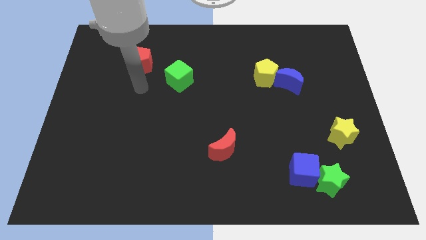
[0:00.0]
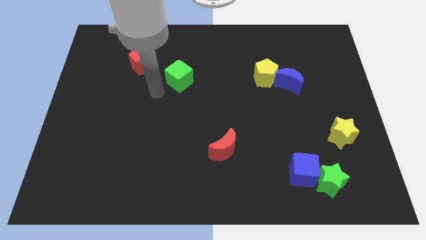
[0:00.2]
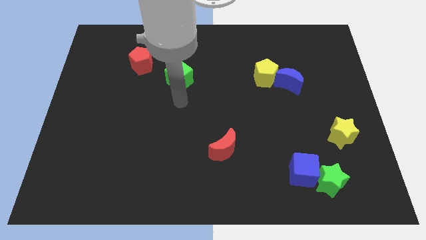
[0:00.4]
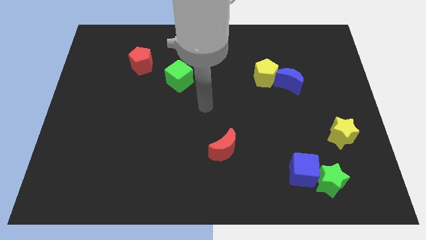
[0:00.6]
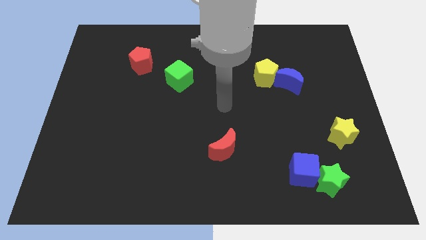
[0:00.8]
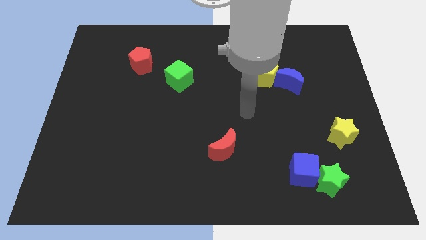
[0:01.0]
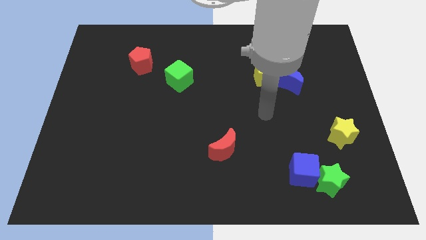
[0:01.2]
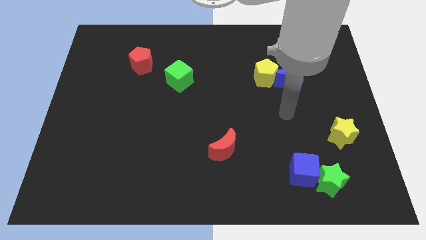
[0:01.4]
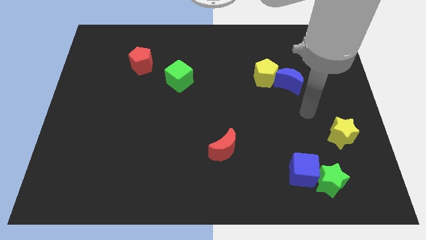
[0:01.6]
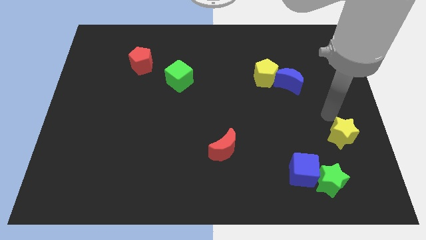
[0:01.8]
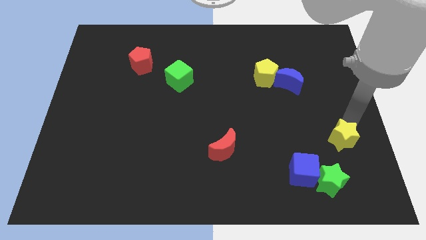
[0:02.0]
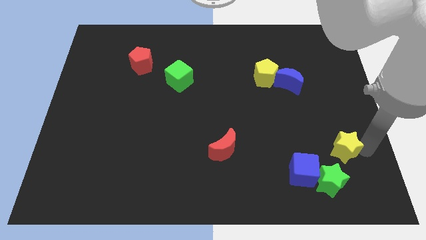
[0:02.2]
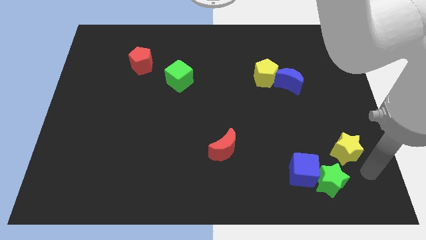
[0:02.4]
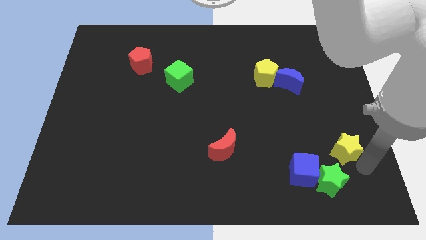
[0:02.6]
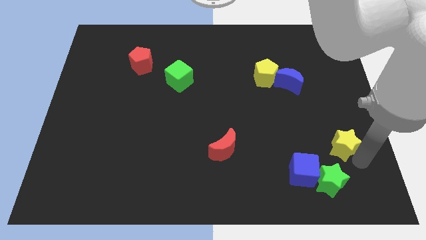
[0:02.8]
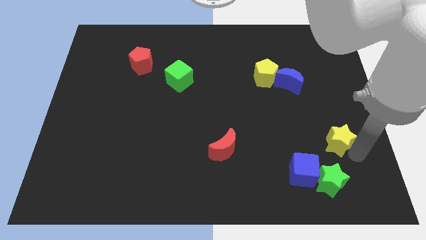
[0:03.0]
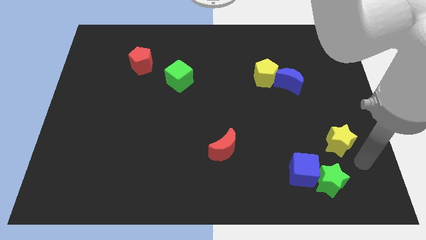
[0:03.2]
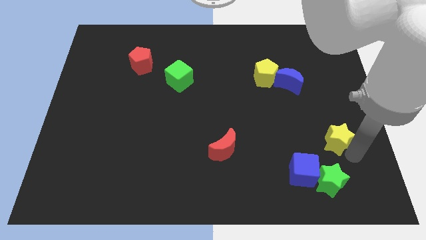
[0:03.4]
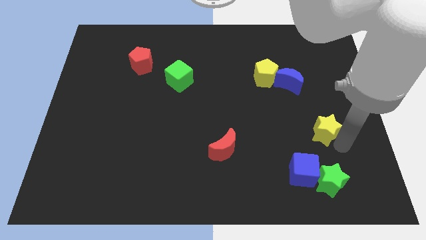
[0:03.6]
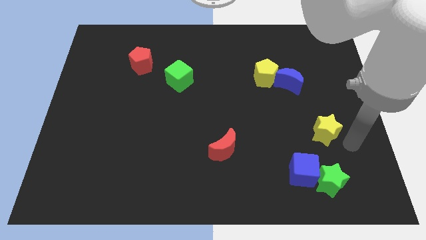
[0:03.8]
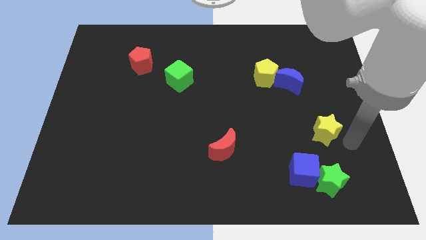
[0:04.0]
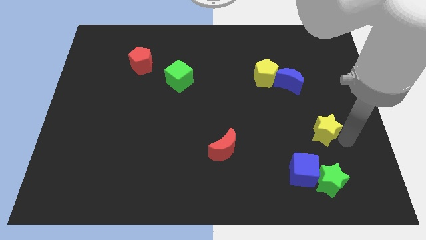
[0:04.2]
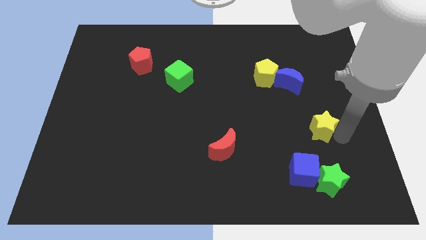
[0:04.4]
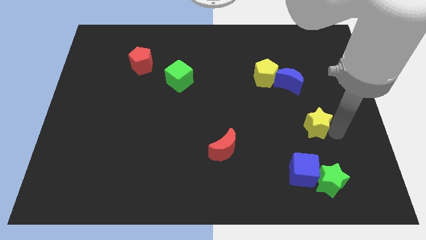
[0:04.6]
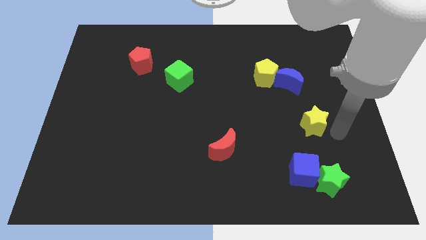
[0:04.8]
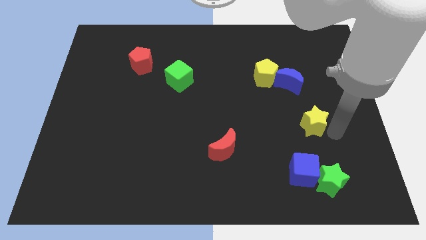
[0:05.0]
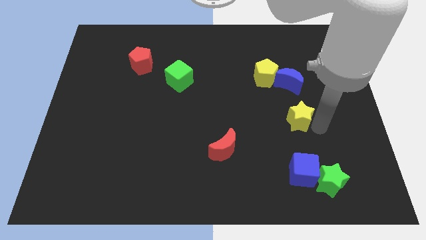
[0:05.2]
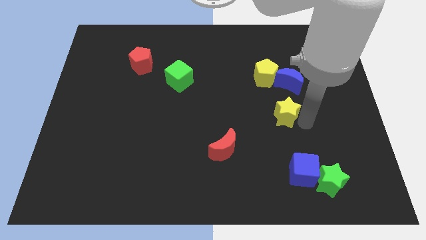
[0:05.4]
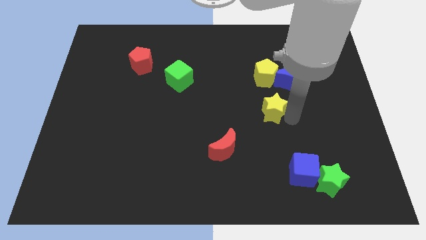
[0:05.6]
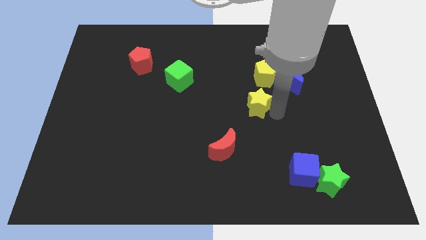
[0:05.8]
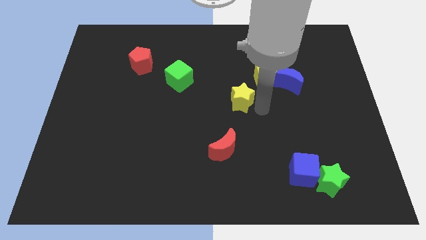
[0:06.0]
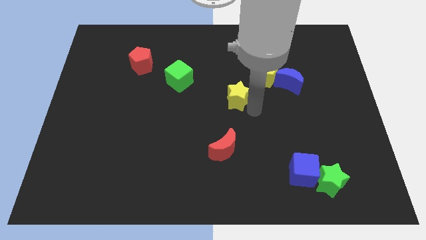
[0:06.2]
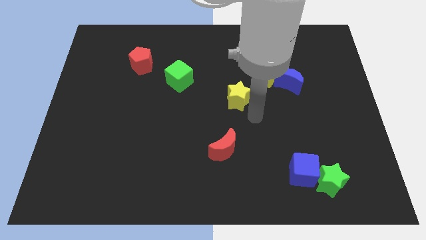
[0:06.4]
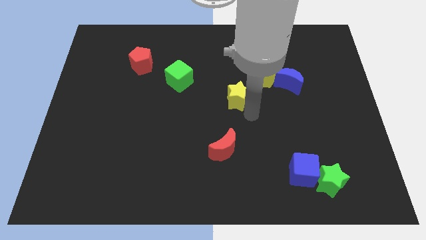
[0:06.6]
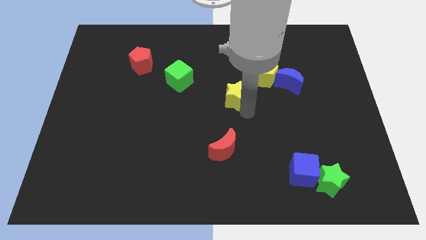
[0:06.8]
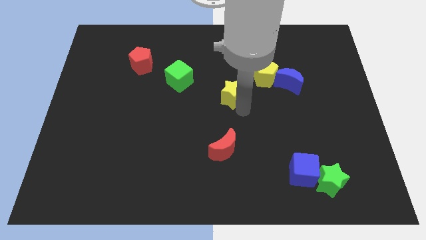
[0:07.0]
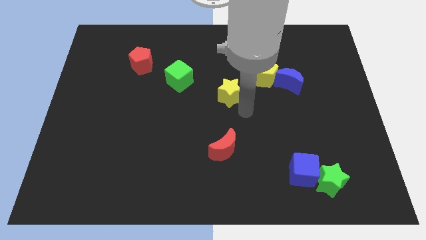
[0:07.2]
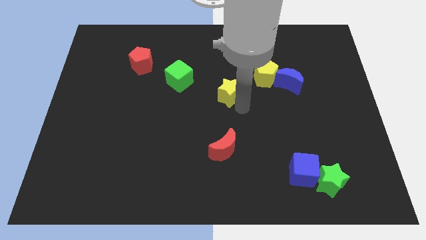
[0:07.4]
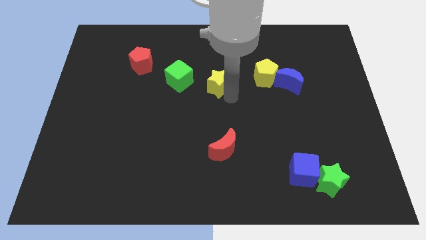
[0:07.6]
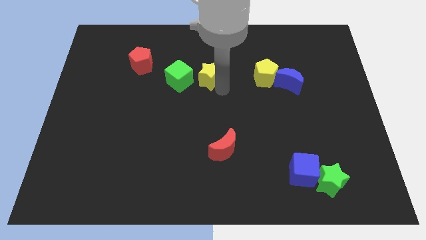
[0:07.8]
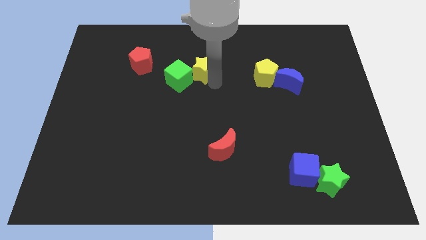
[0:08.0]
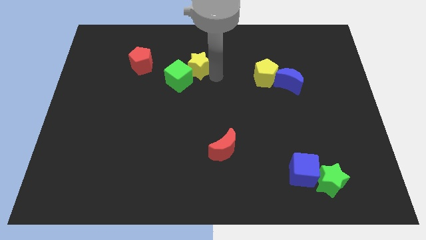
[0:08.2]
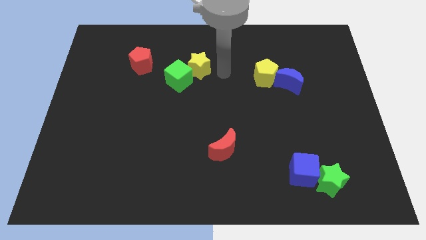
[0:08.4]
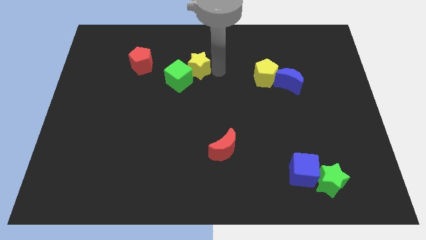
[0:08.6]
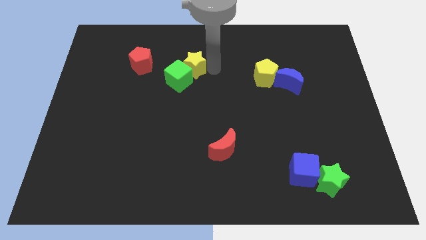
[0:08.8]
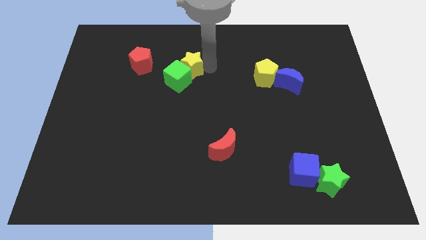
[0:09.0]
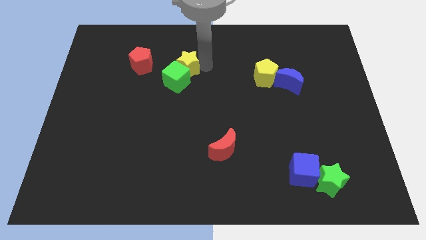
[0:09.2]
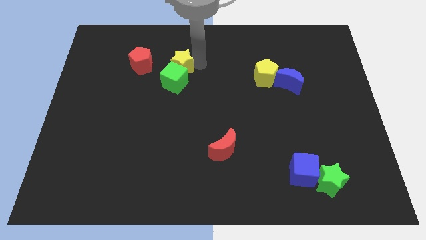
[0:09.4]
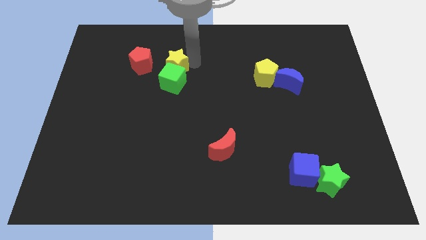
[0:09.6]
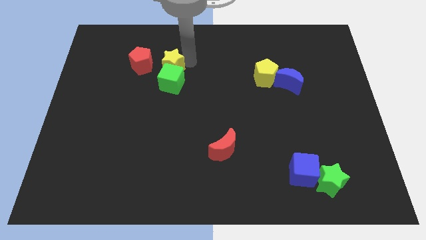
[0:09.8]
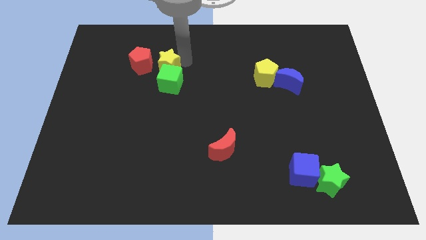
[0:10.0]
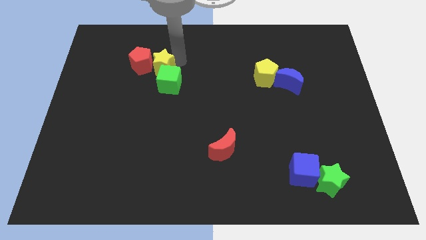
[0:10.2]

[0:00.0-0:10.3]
move the yellow star next to the red pentagon

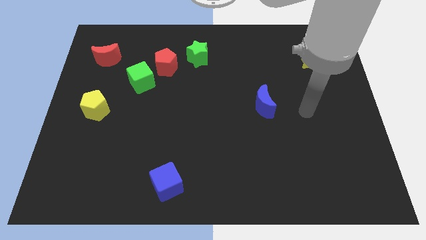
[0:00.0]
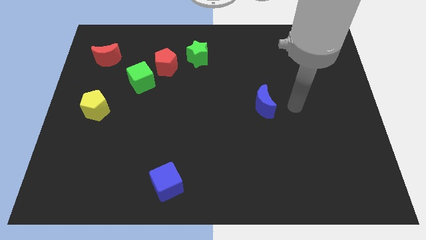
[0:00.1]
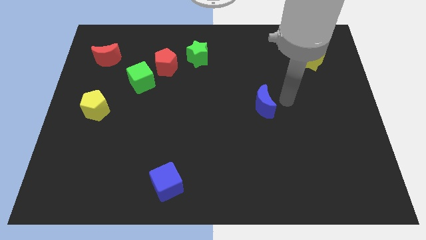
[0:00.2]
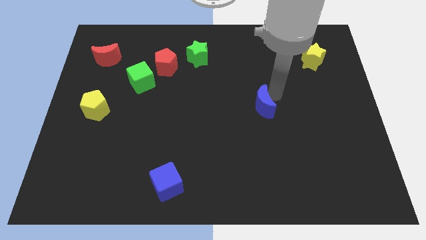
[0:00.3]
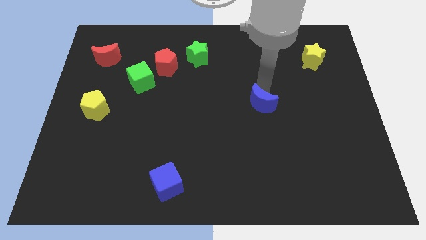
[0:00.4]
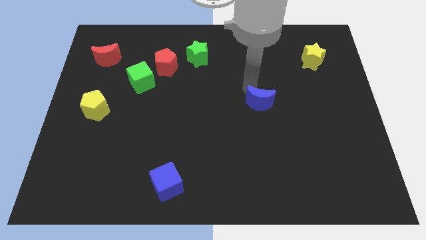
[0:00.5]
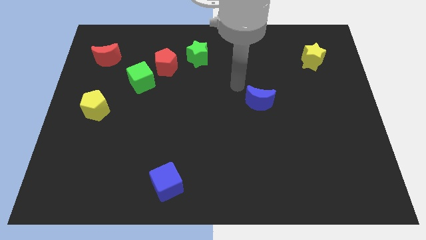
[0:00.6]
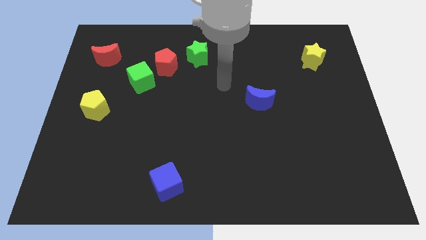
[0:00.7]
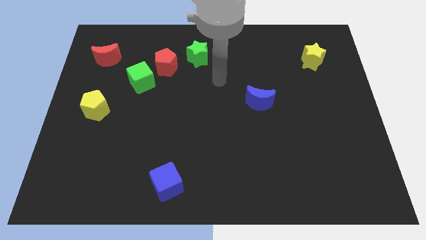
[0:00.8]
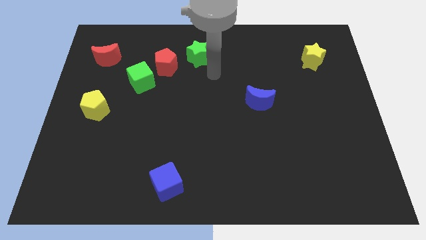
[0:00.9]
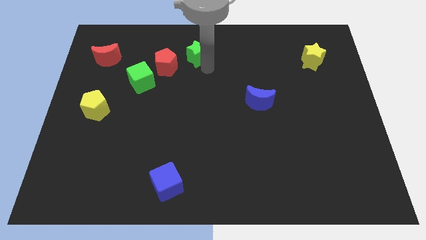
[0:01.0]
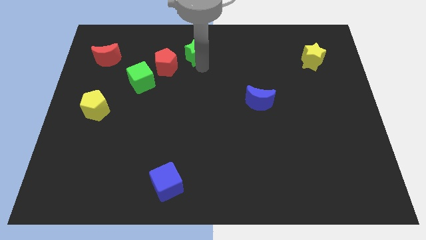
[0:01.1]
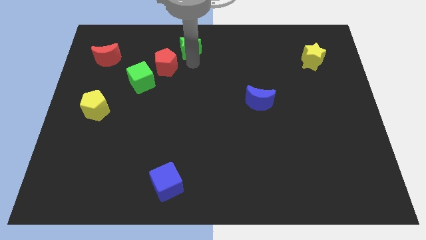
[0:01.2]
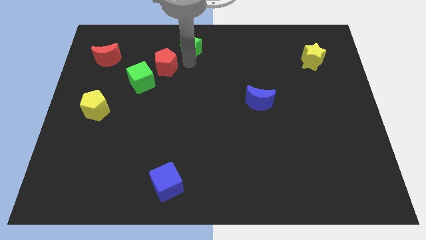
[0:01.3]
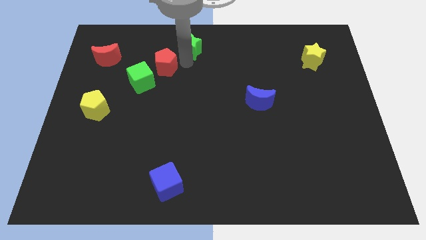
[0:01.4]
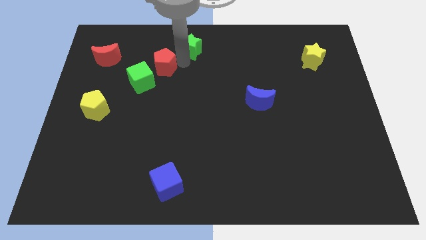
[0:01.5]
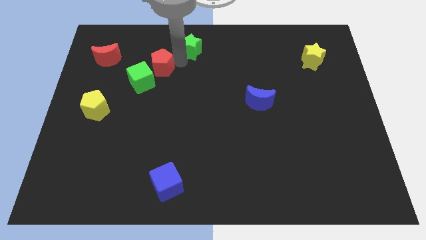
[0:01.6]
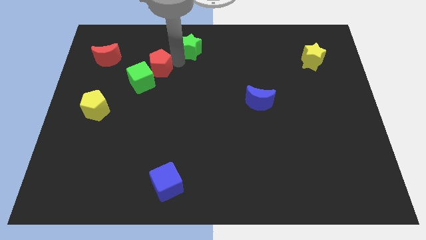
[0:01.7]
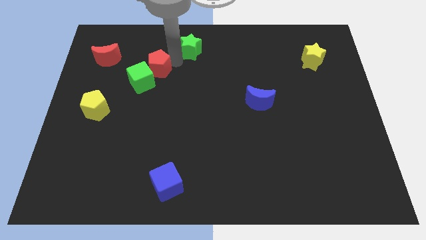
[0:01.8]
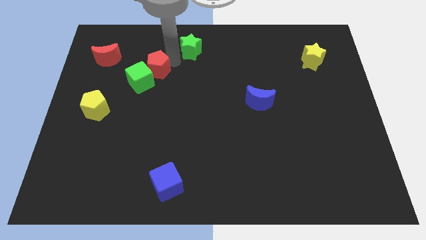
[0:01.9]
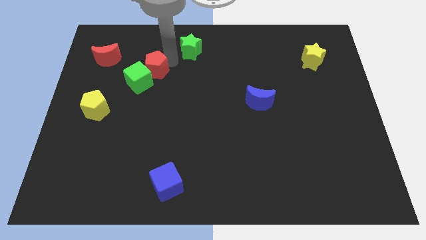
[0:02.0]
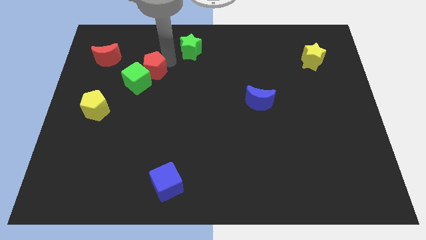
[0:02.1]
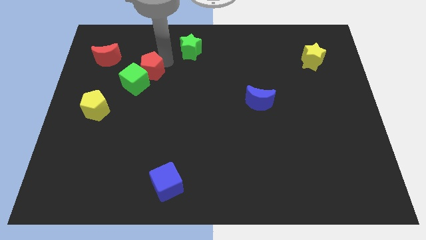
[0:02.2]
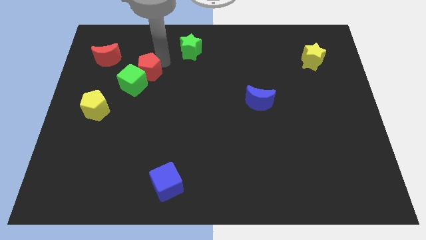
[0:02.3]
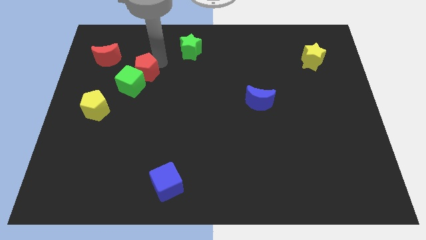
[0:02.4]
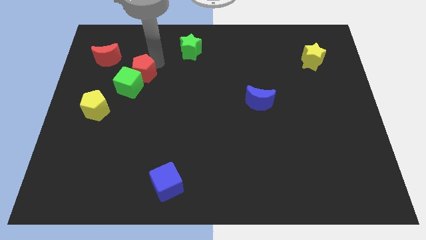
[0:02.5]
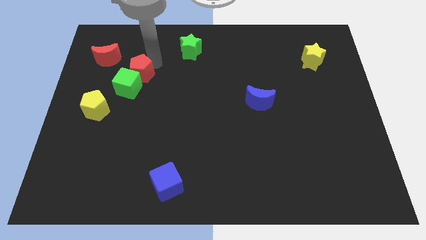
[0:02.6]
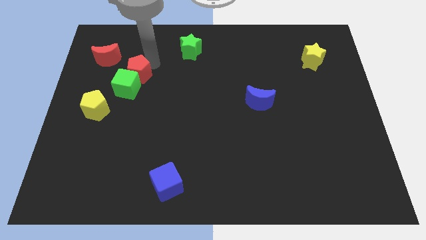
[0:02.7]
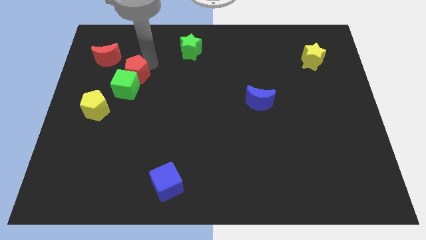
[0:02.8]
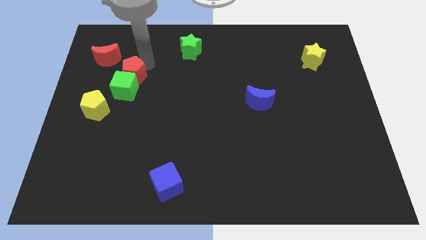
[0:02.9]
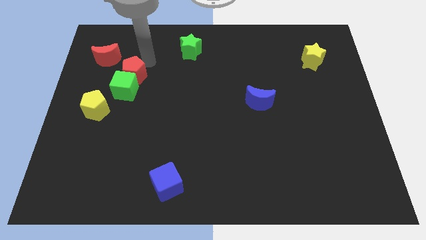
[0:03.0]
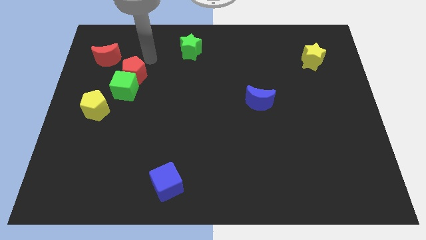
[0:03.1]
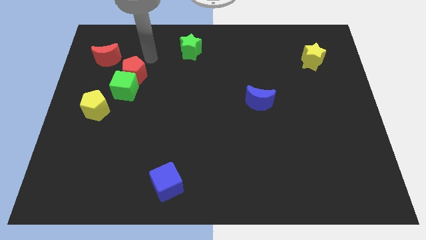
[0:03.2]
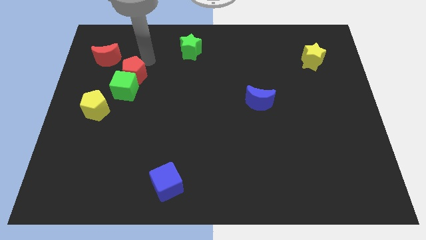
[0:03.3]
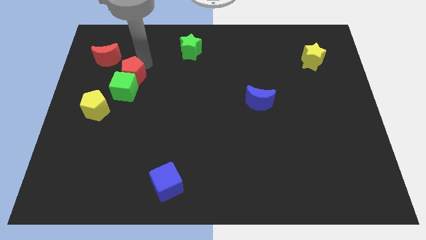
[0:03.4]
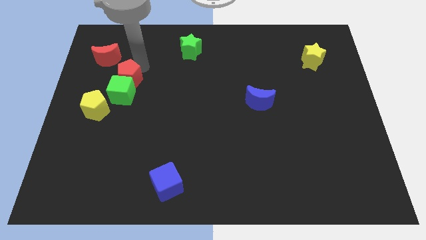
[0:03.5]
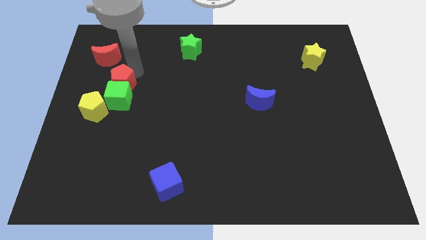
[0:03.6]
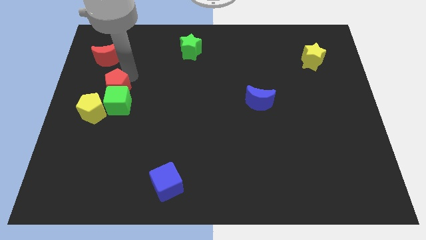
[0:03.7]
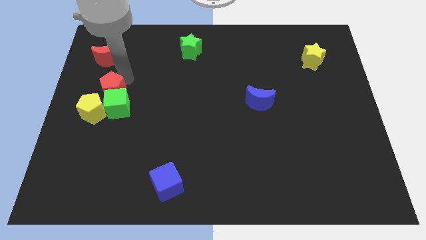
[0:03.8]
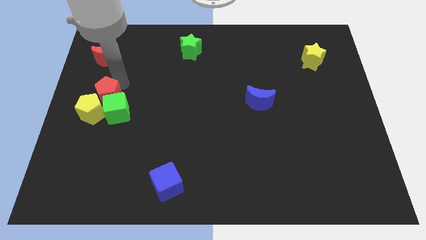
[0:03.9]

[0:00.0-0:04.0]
push the red pentagon towards the yellow pentagon
